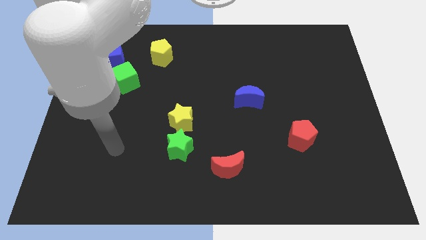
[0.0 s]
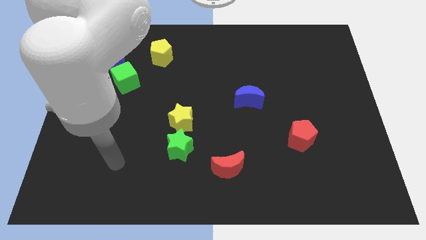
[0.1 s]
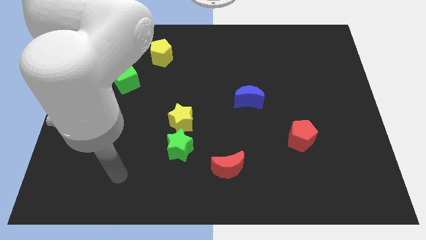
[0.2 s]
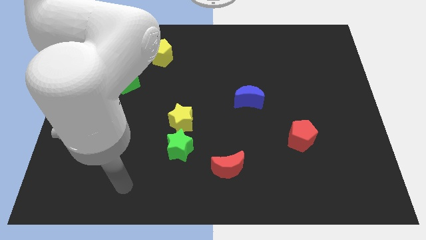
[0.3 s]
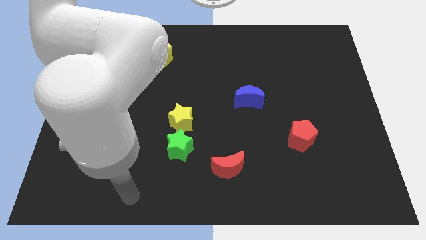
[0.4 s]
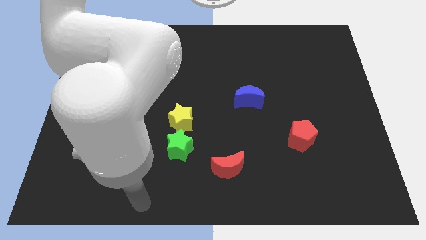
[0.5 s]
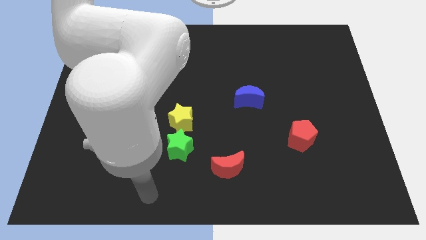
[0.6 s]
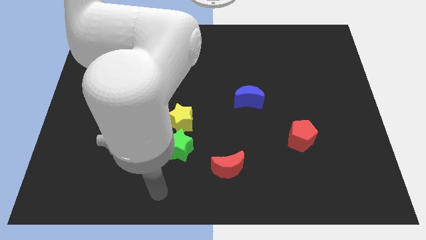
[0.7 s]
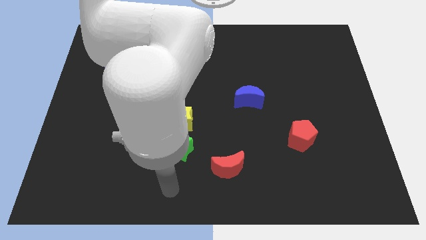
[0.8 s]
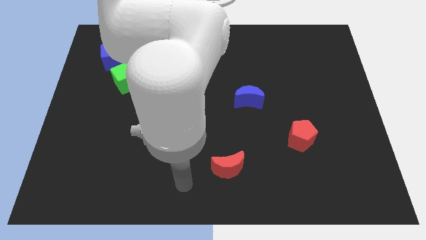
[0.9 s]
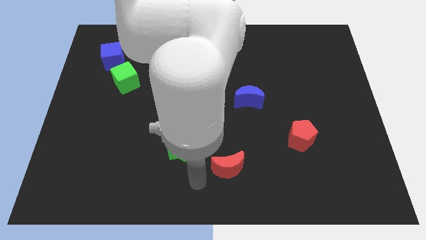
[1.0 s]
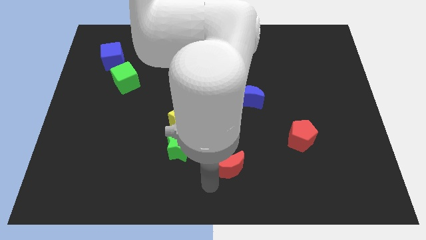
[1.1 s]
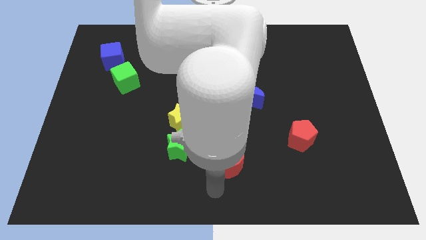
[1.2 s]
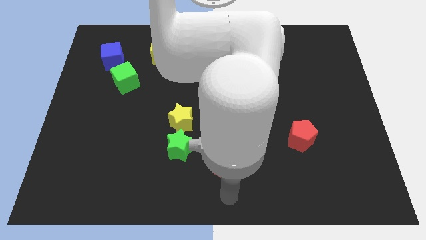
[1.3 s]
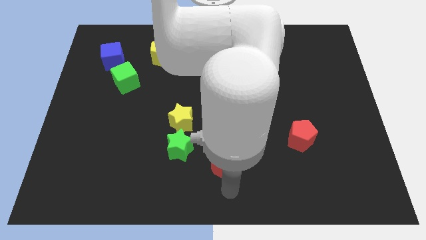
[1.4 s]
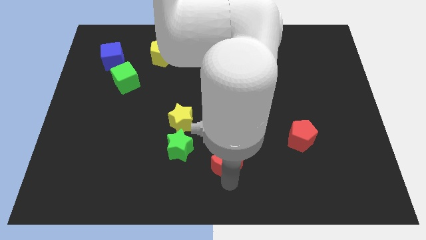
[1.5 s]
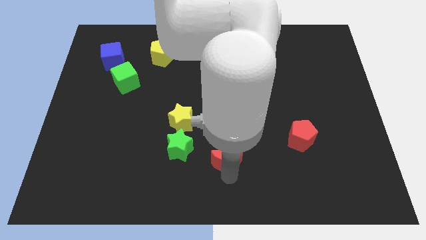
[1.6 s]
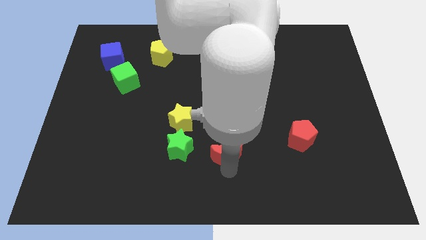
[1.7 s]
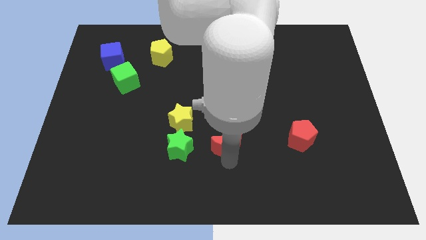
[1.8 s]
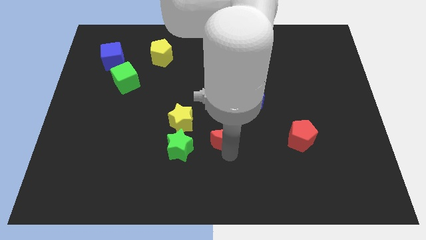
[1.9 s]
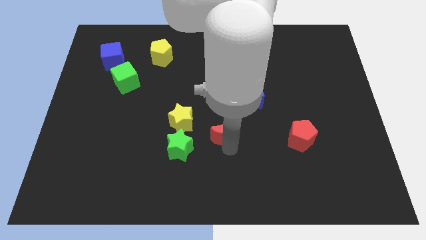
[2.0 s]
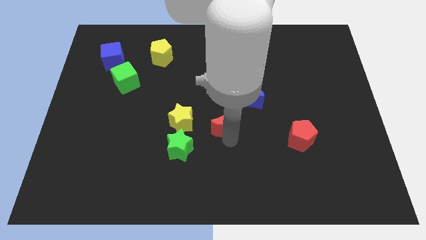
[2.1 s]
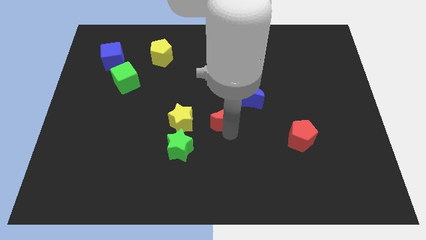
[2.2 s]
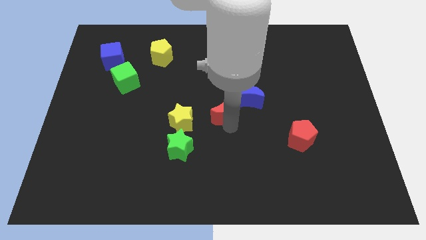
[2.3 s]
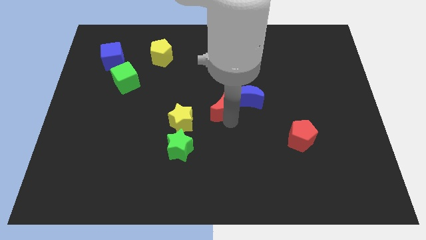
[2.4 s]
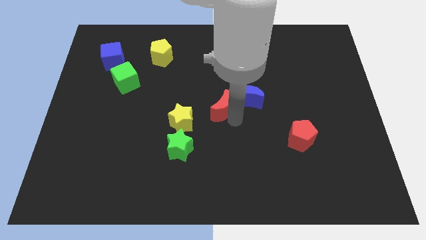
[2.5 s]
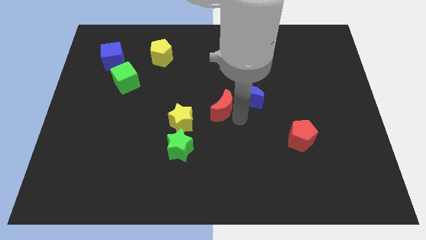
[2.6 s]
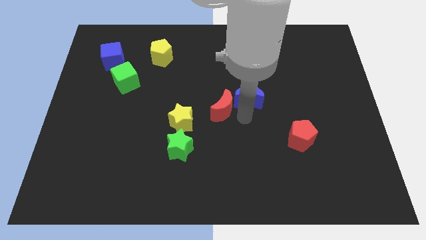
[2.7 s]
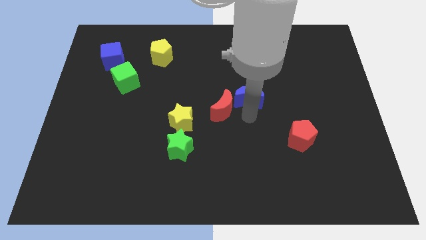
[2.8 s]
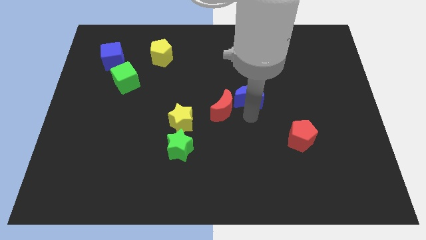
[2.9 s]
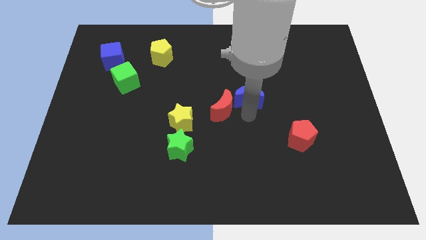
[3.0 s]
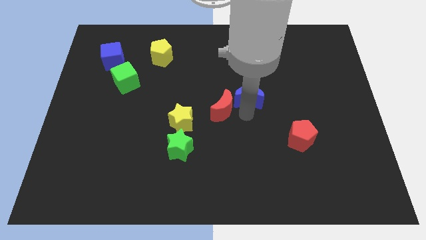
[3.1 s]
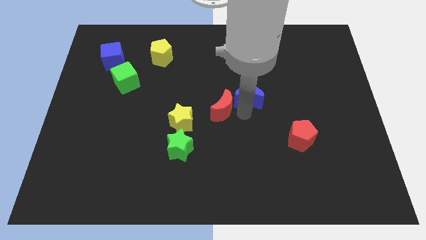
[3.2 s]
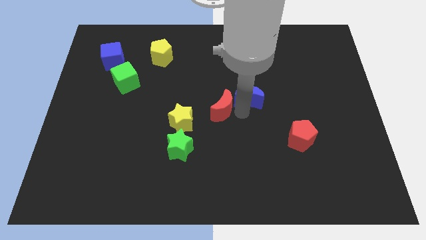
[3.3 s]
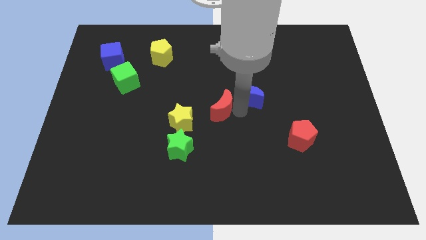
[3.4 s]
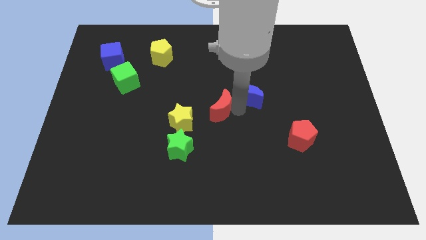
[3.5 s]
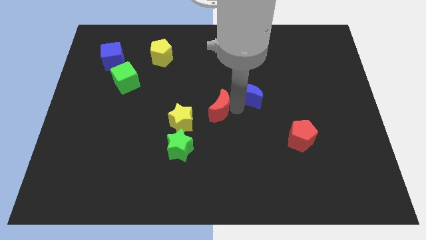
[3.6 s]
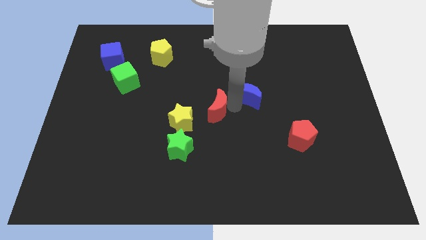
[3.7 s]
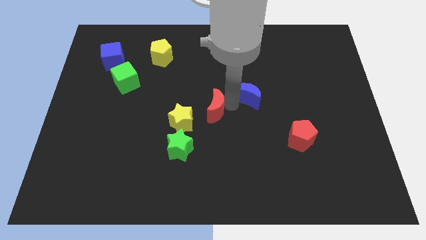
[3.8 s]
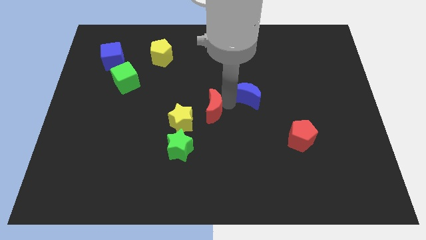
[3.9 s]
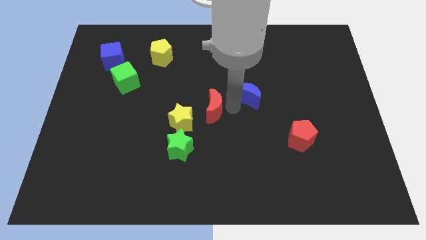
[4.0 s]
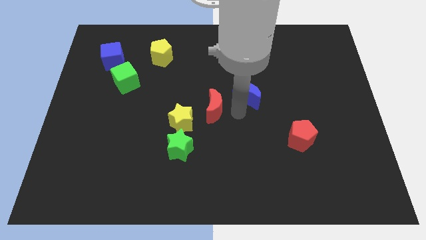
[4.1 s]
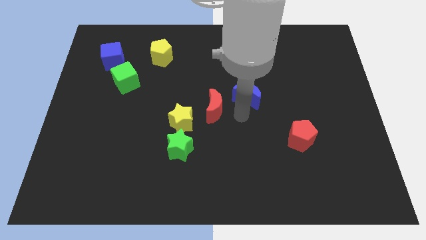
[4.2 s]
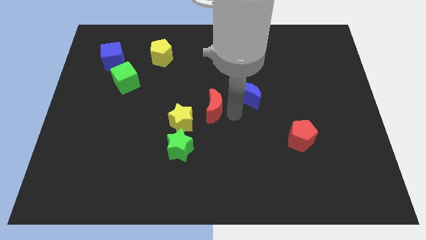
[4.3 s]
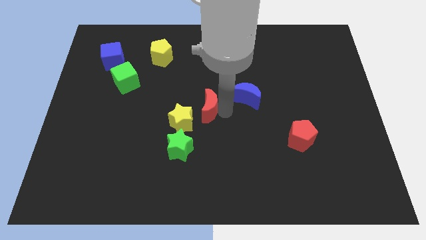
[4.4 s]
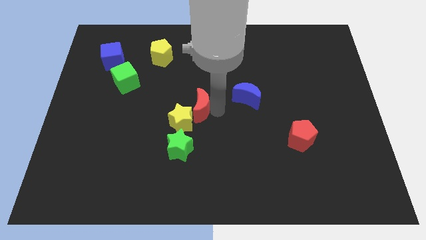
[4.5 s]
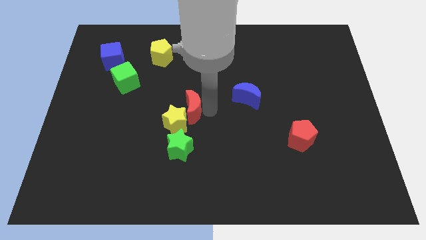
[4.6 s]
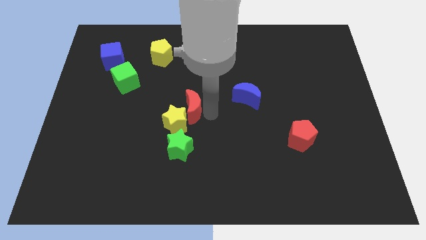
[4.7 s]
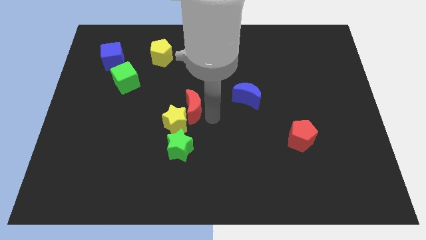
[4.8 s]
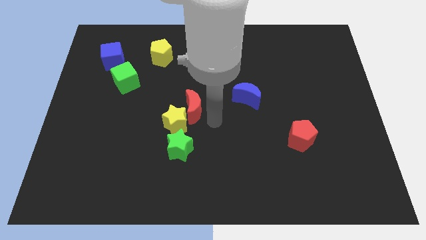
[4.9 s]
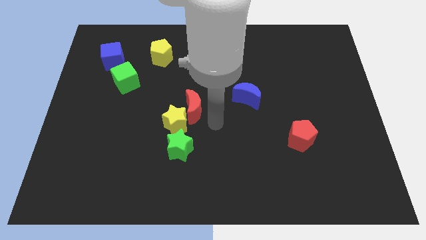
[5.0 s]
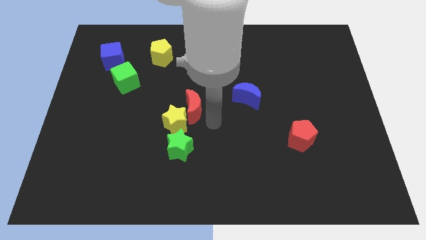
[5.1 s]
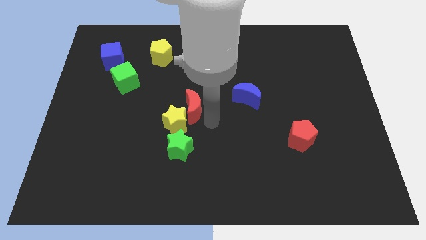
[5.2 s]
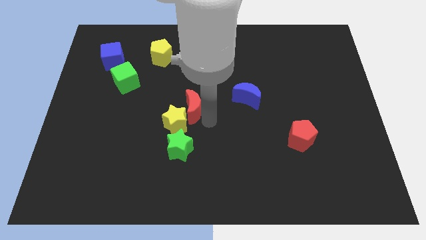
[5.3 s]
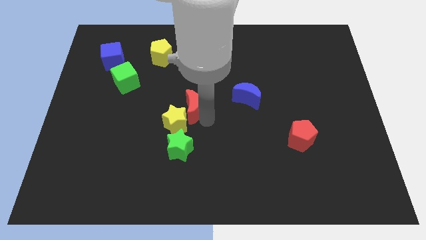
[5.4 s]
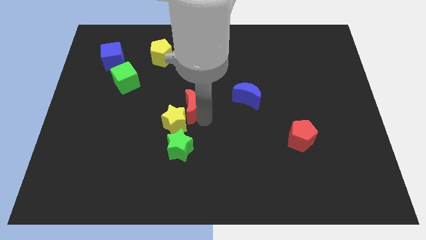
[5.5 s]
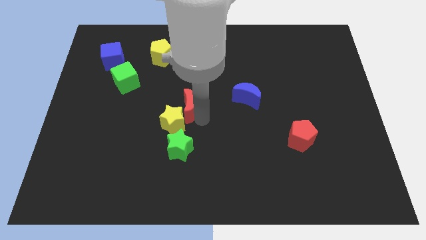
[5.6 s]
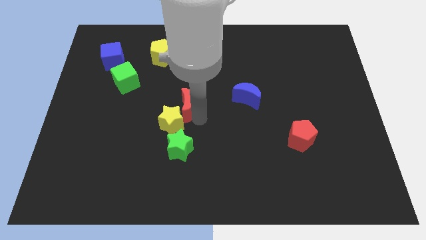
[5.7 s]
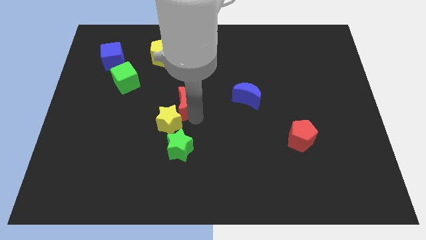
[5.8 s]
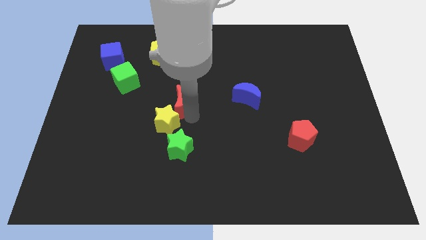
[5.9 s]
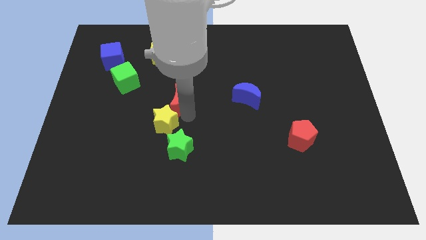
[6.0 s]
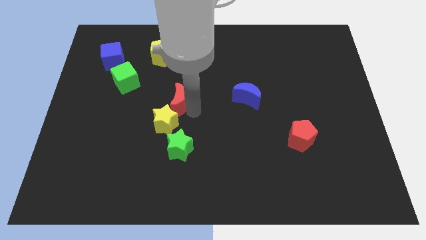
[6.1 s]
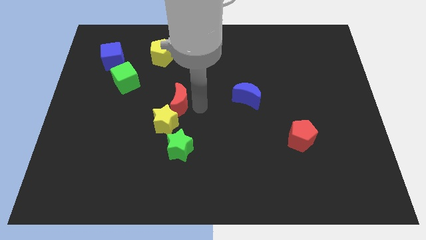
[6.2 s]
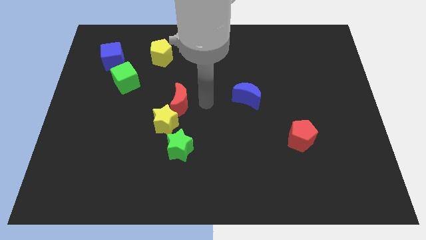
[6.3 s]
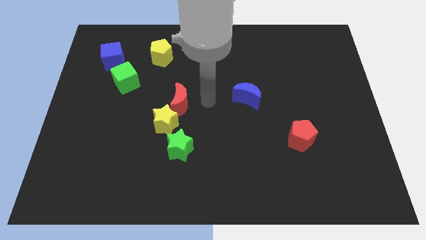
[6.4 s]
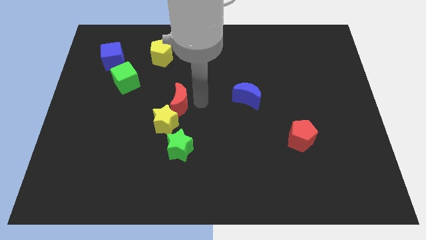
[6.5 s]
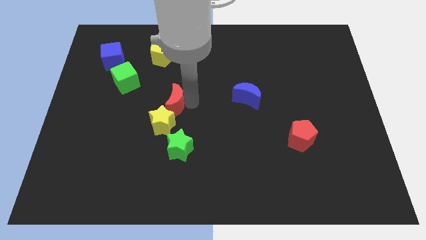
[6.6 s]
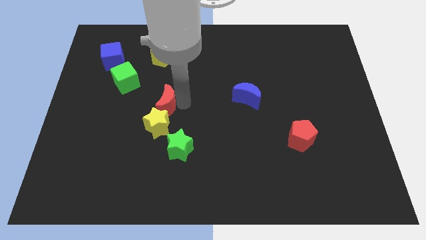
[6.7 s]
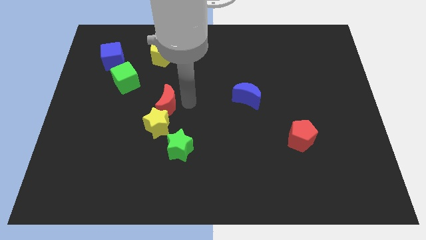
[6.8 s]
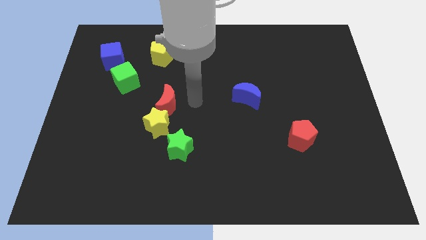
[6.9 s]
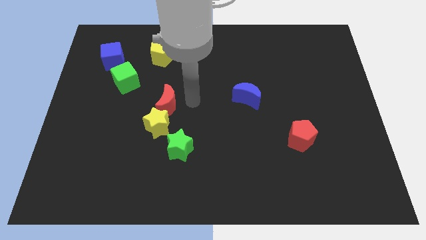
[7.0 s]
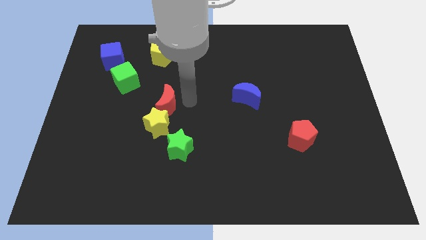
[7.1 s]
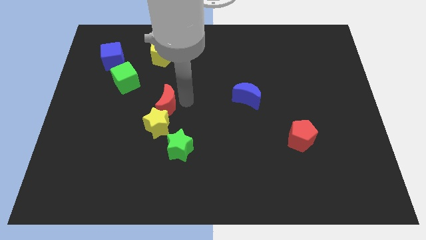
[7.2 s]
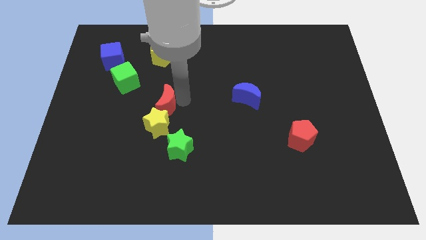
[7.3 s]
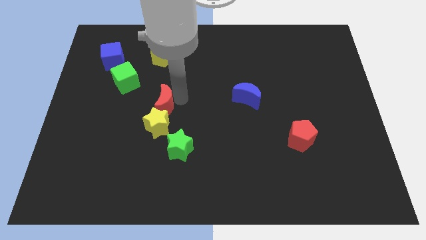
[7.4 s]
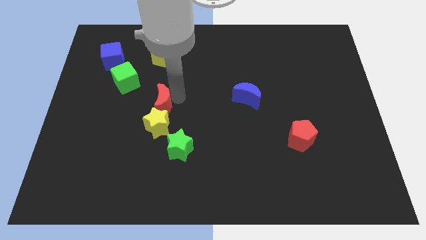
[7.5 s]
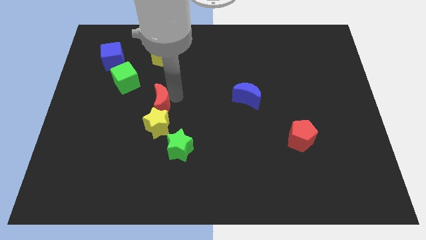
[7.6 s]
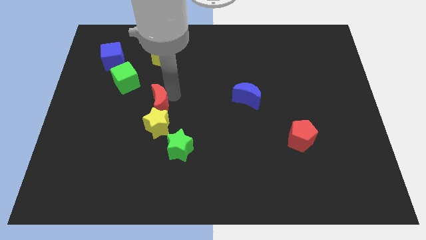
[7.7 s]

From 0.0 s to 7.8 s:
put the red moon to the top left side of the yellow star
